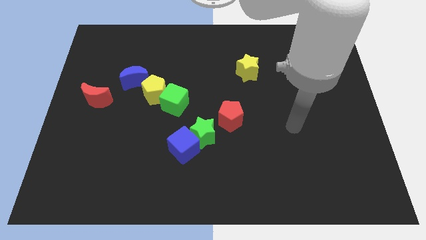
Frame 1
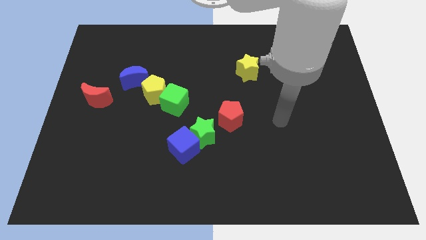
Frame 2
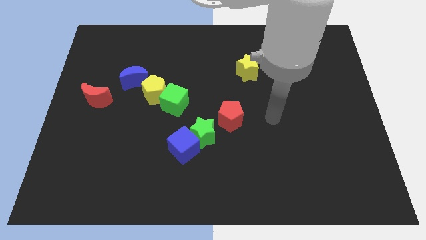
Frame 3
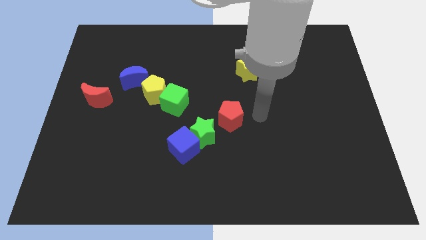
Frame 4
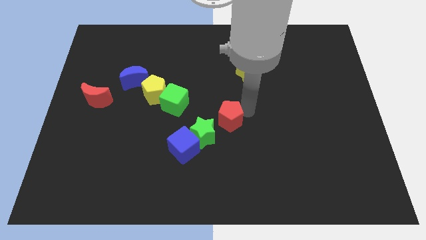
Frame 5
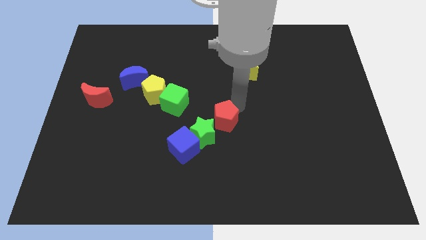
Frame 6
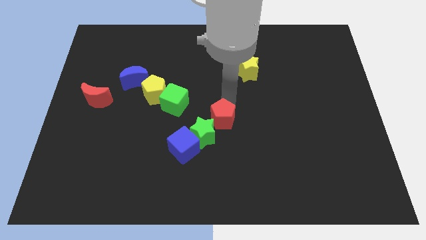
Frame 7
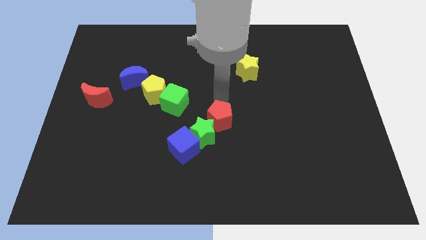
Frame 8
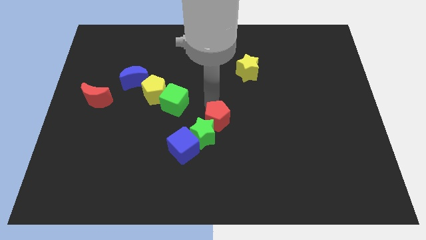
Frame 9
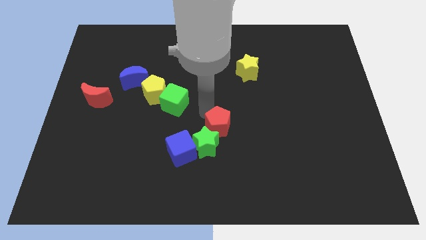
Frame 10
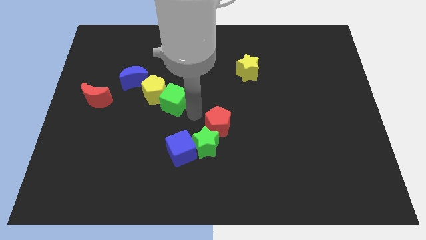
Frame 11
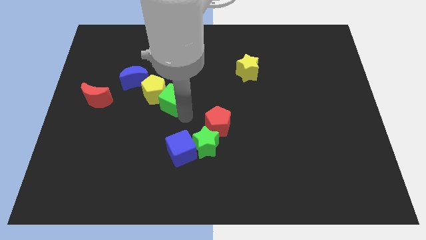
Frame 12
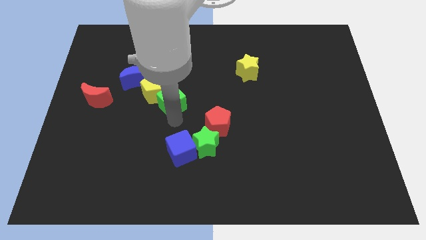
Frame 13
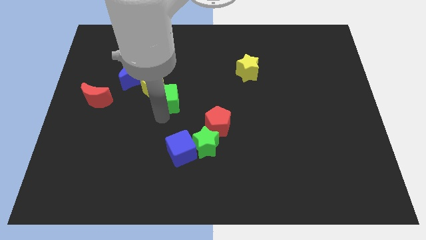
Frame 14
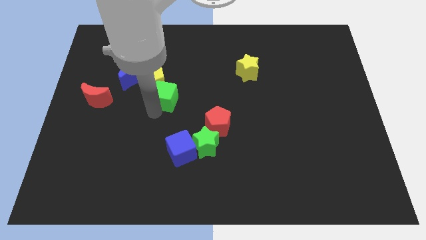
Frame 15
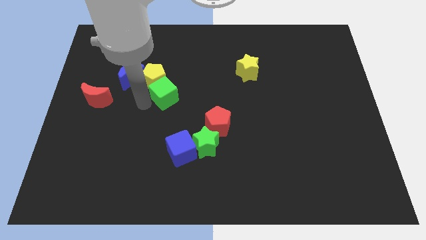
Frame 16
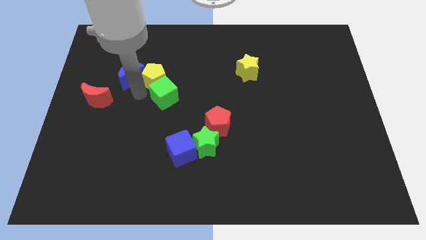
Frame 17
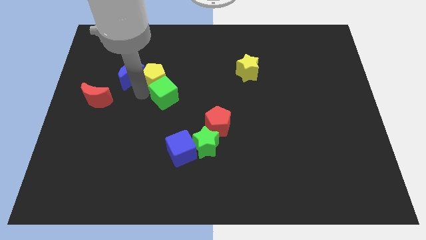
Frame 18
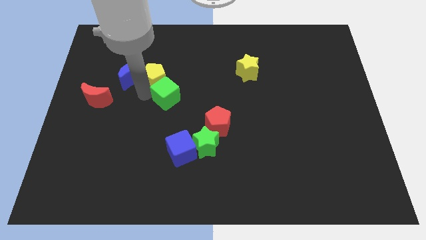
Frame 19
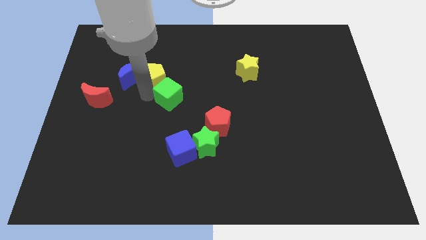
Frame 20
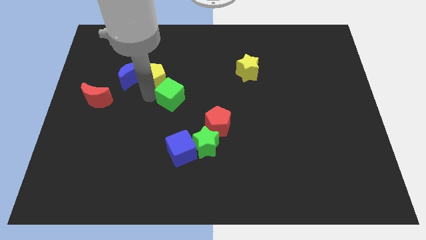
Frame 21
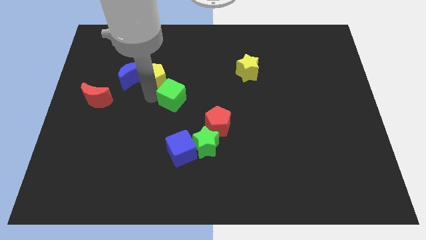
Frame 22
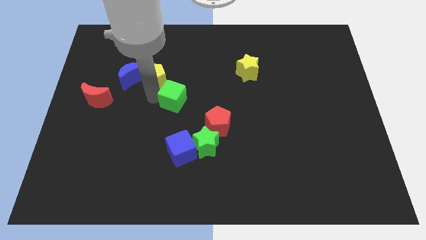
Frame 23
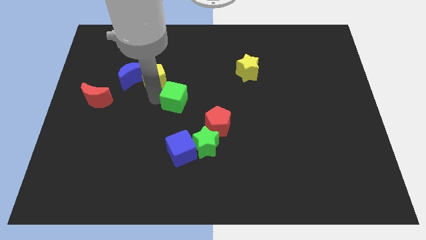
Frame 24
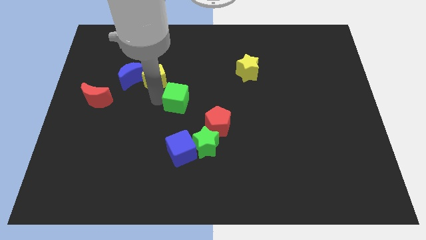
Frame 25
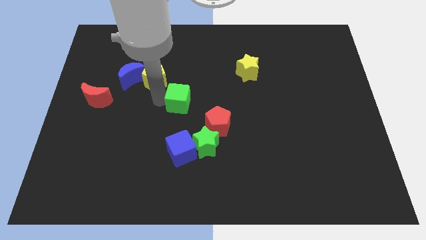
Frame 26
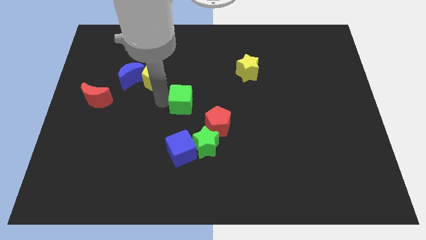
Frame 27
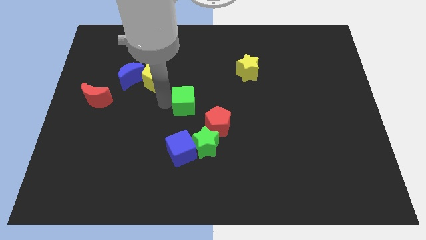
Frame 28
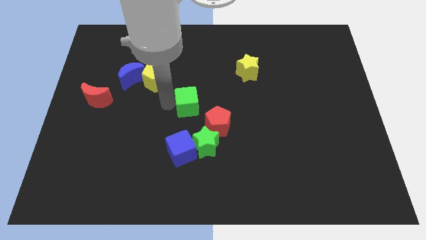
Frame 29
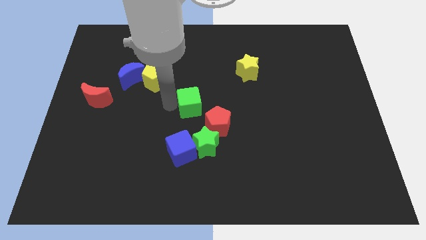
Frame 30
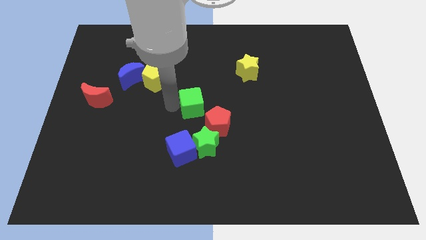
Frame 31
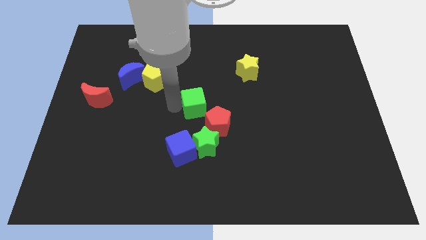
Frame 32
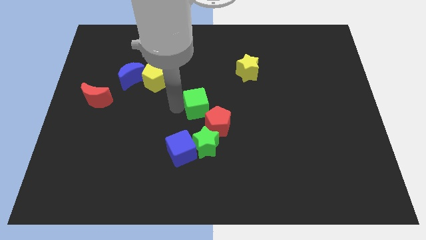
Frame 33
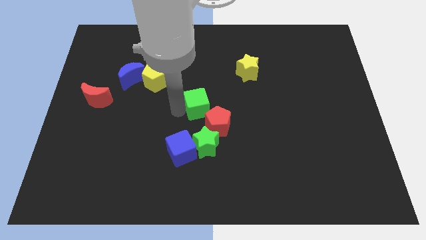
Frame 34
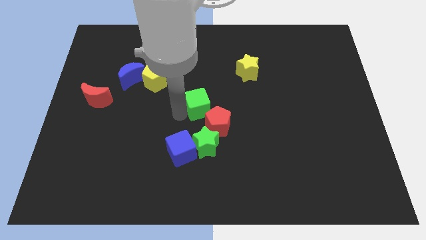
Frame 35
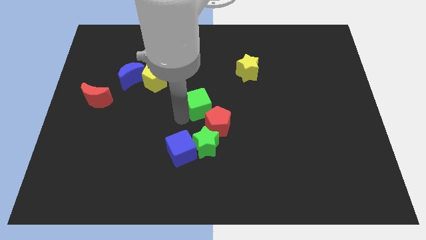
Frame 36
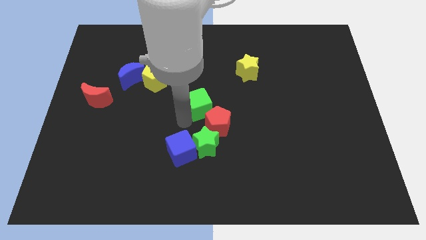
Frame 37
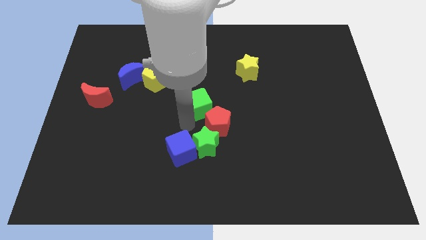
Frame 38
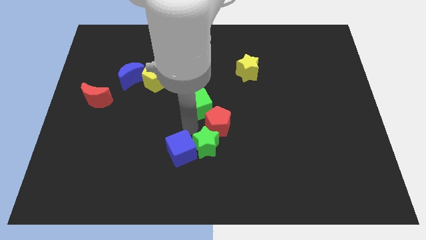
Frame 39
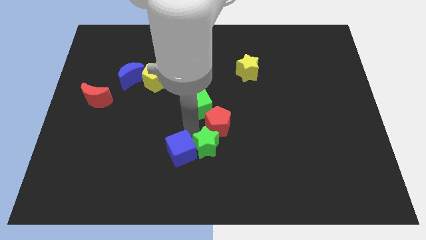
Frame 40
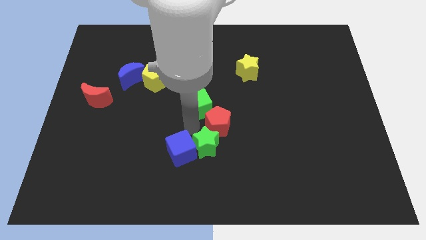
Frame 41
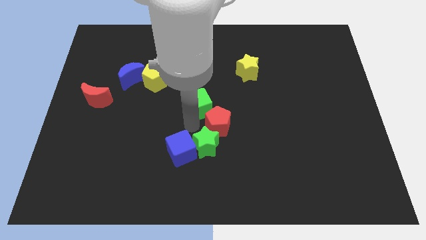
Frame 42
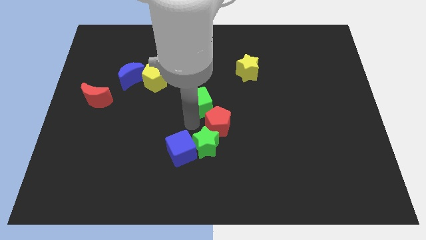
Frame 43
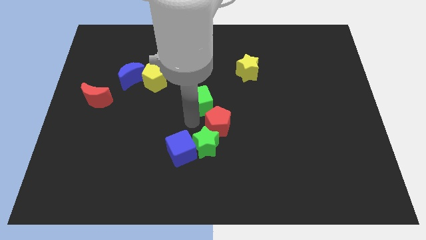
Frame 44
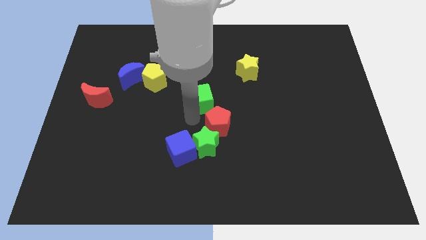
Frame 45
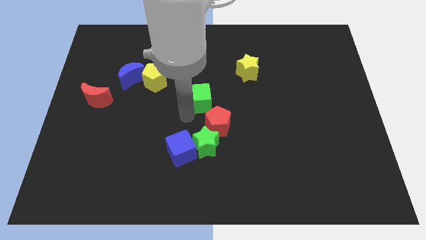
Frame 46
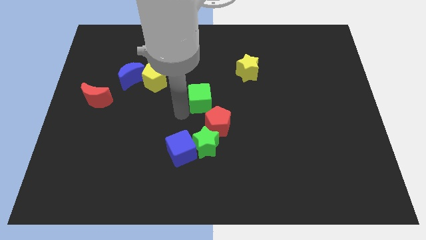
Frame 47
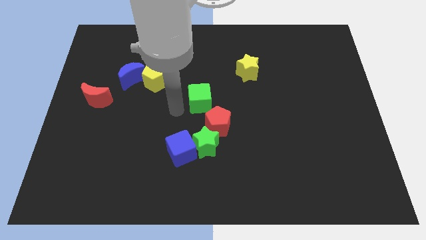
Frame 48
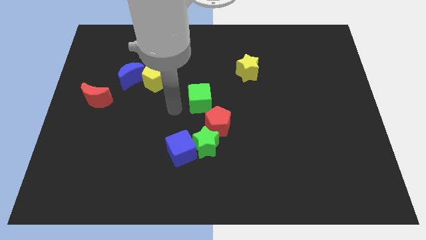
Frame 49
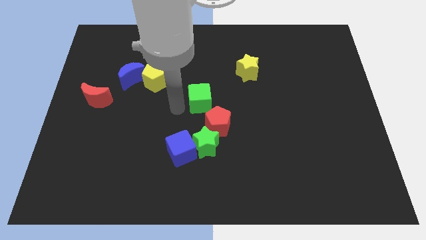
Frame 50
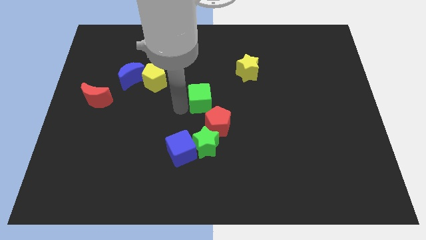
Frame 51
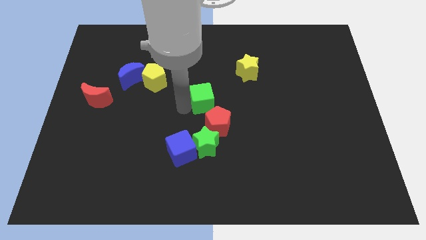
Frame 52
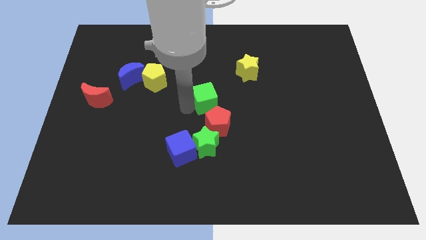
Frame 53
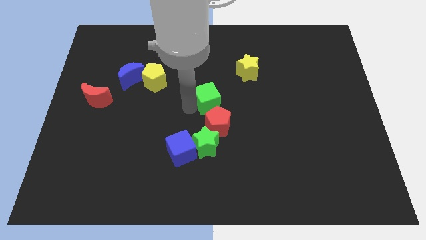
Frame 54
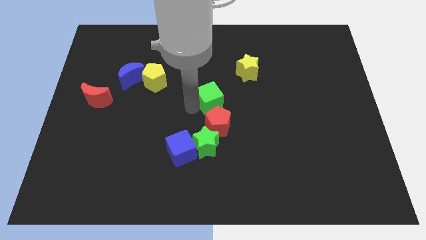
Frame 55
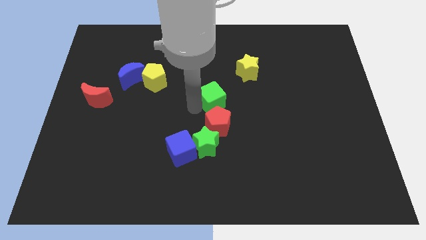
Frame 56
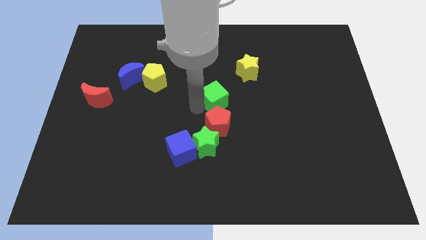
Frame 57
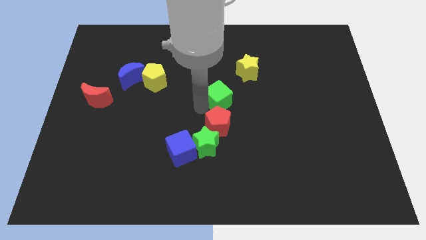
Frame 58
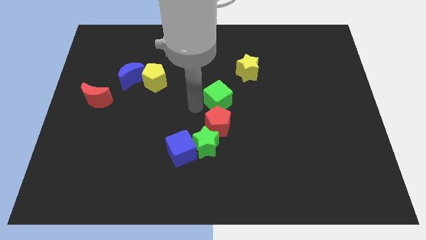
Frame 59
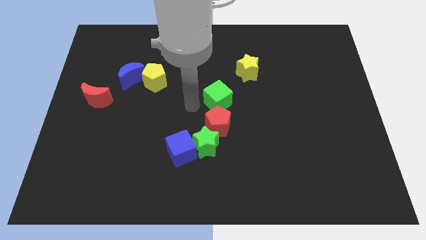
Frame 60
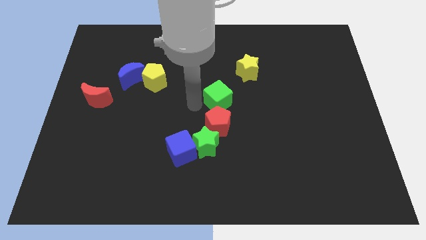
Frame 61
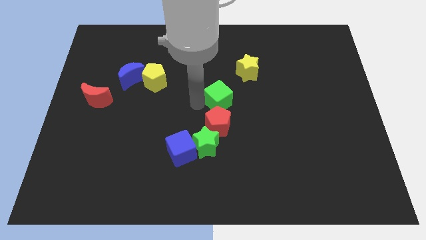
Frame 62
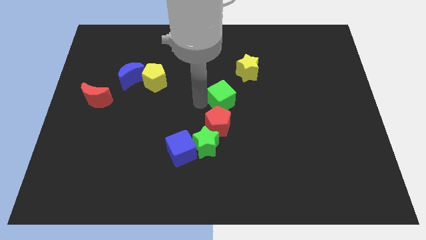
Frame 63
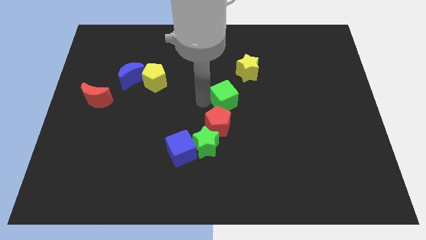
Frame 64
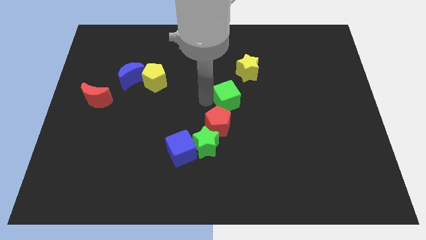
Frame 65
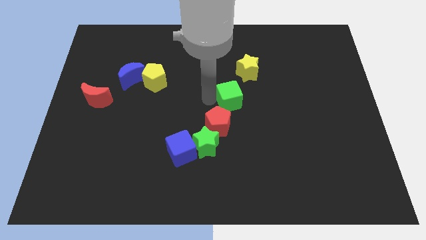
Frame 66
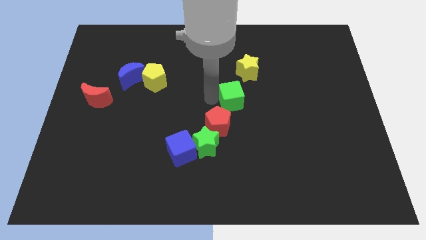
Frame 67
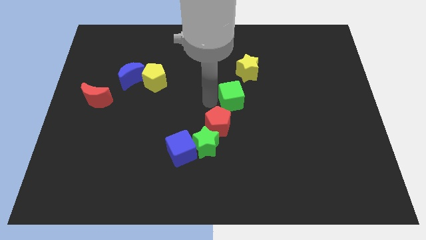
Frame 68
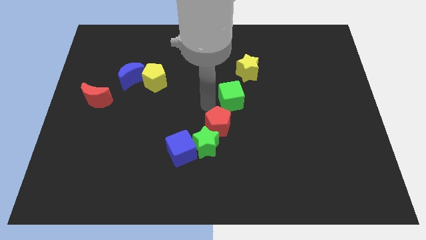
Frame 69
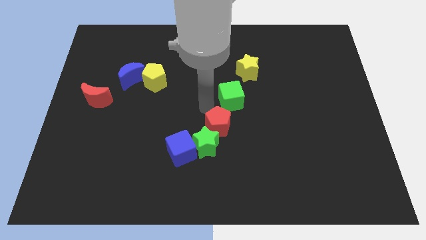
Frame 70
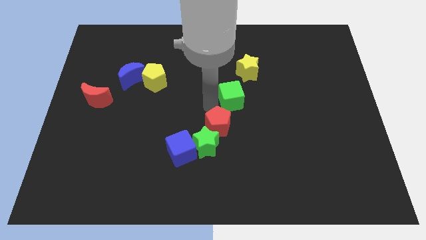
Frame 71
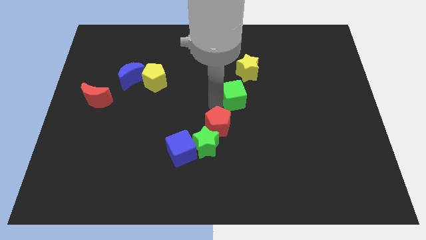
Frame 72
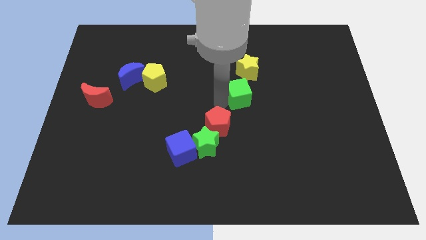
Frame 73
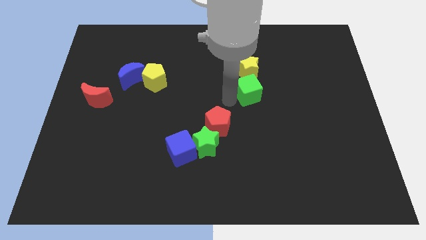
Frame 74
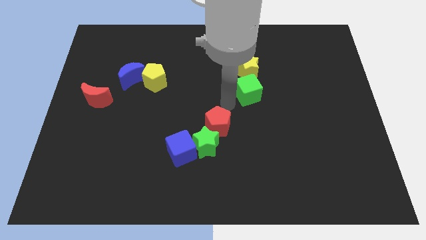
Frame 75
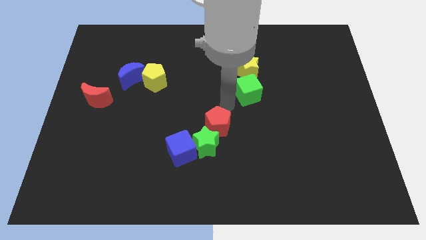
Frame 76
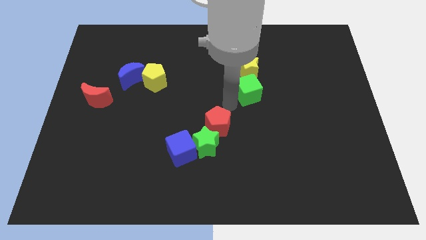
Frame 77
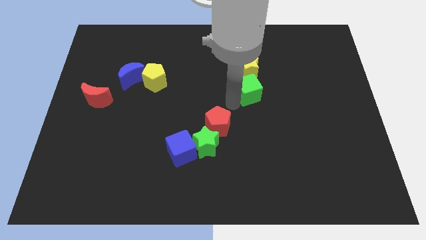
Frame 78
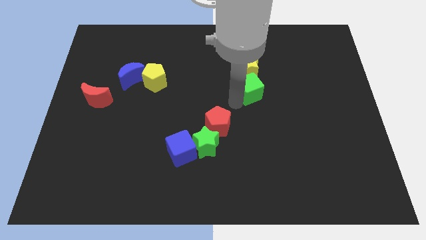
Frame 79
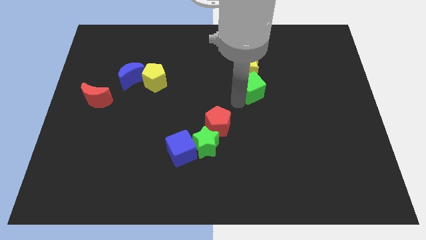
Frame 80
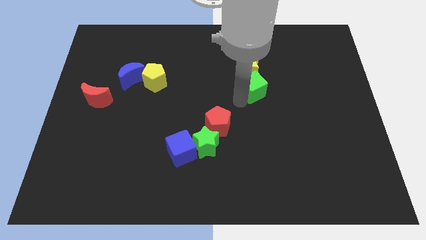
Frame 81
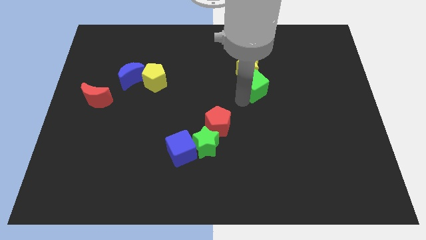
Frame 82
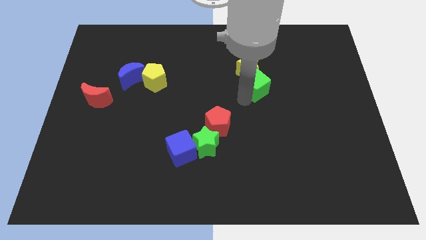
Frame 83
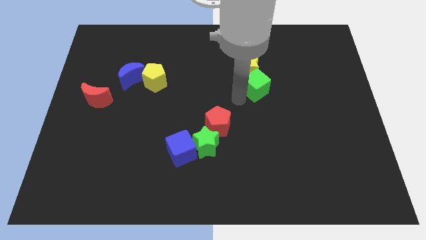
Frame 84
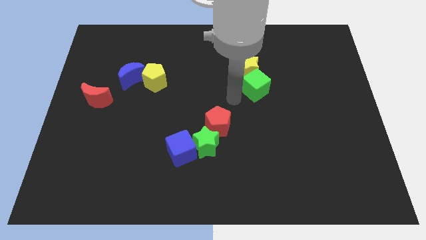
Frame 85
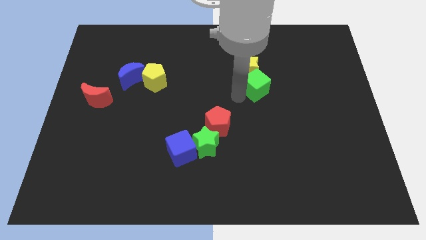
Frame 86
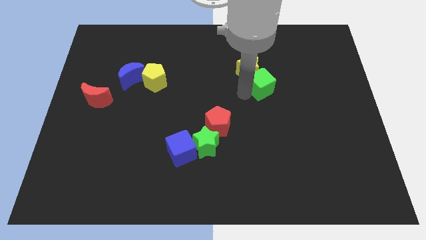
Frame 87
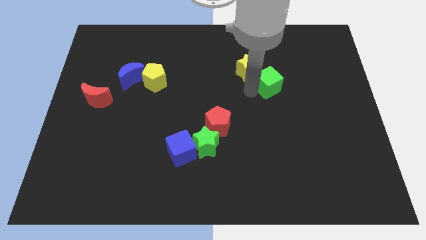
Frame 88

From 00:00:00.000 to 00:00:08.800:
put the green cube right of the yellow star
